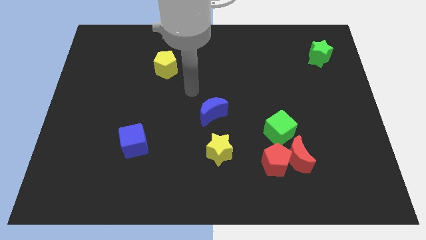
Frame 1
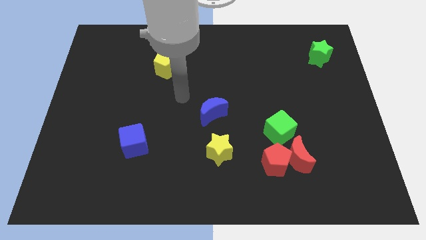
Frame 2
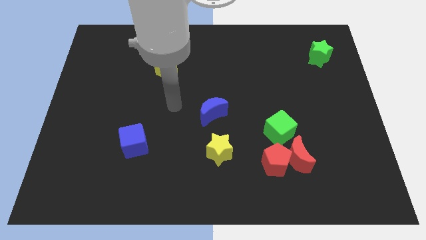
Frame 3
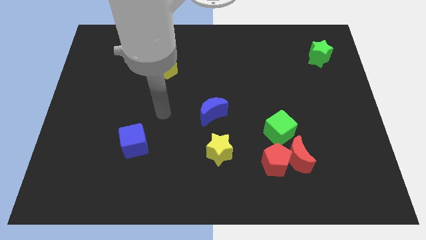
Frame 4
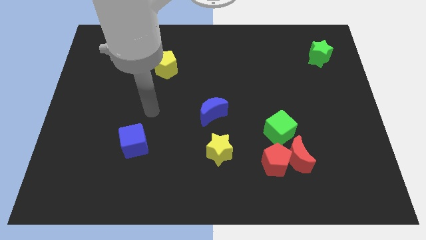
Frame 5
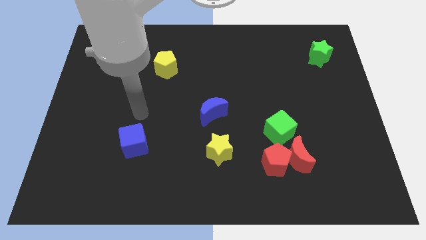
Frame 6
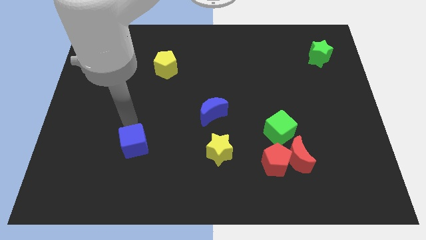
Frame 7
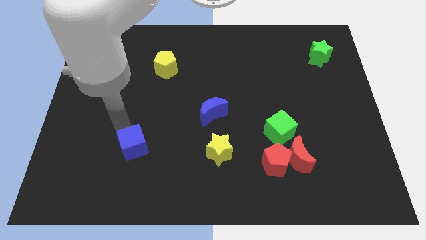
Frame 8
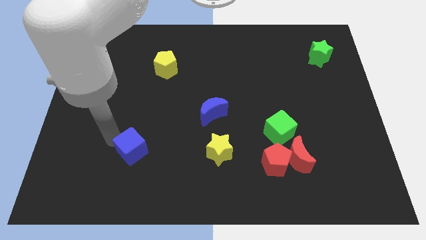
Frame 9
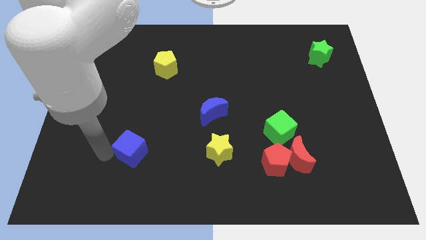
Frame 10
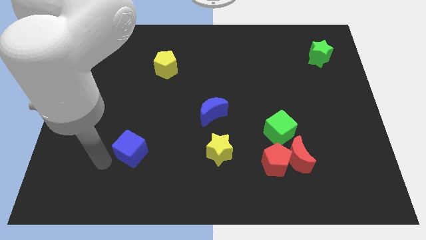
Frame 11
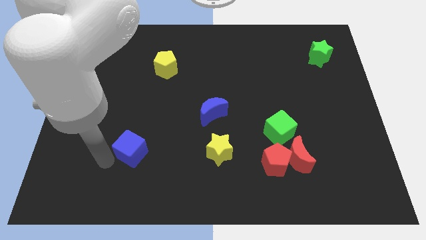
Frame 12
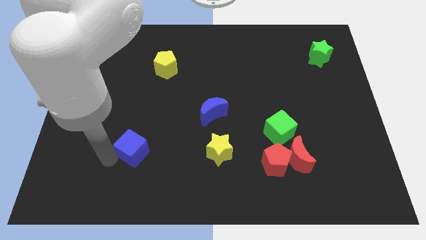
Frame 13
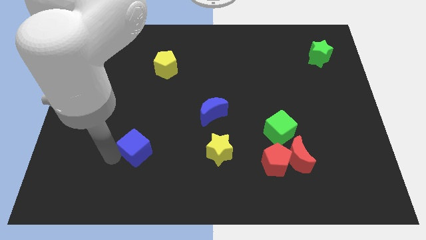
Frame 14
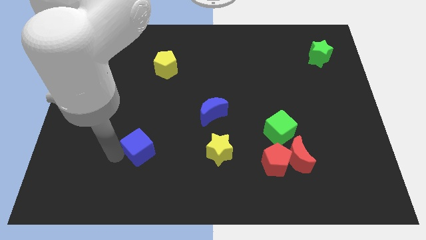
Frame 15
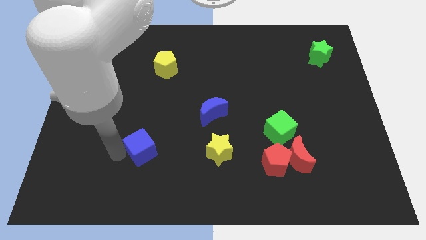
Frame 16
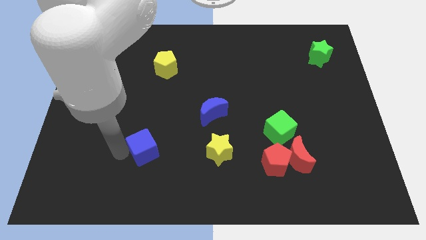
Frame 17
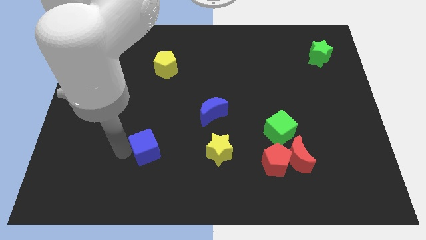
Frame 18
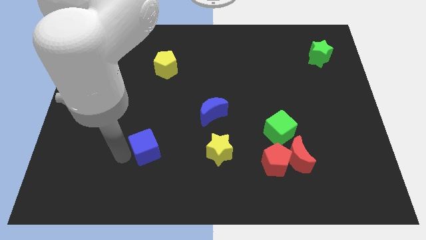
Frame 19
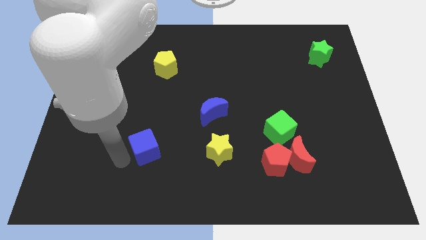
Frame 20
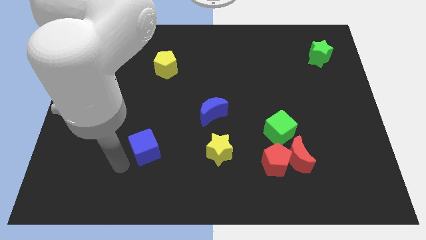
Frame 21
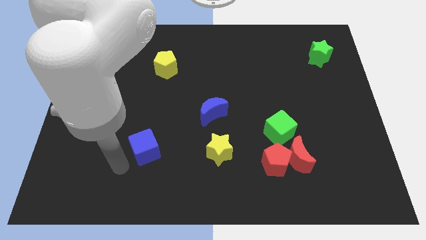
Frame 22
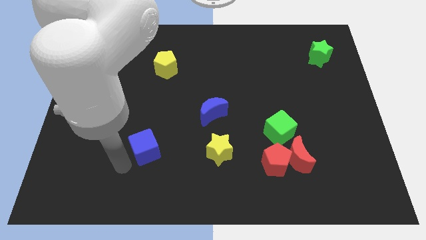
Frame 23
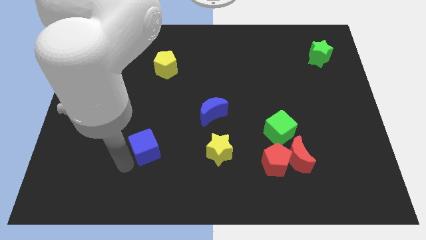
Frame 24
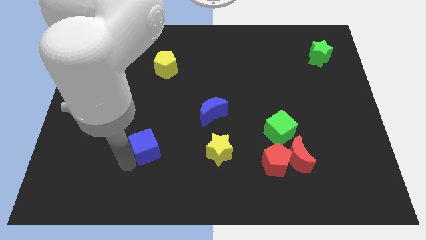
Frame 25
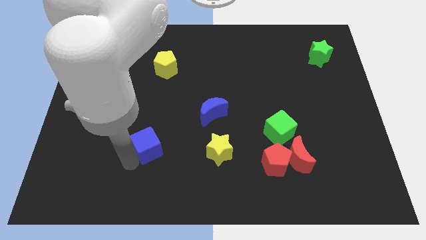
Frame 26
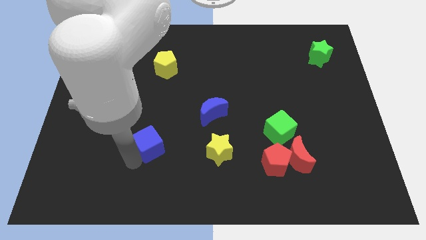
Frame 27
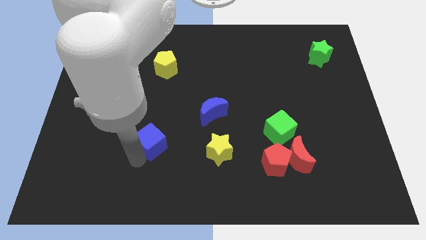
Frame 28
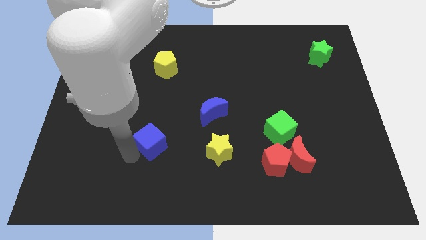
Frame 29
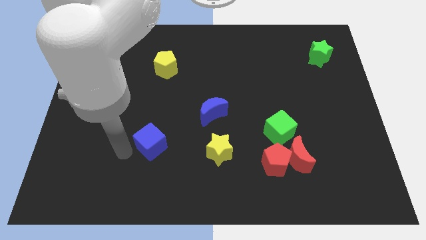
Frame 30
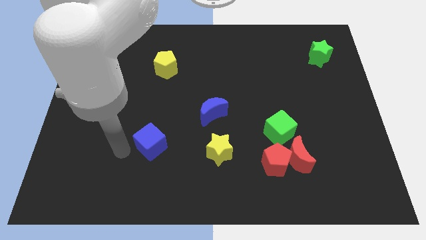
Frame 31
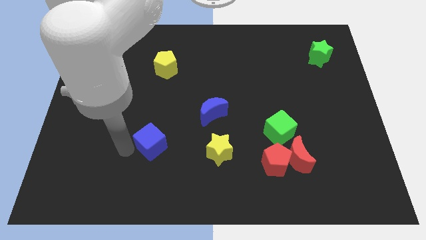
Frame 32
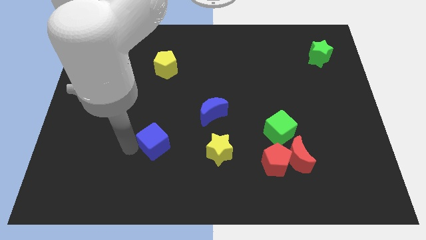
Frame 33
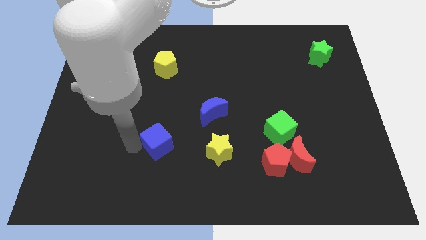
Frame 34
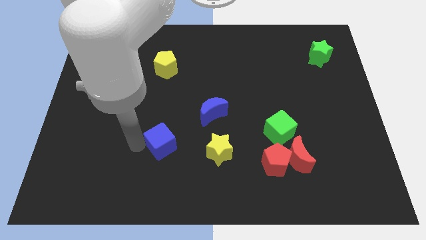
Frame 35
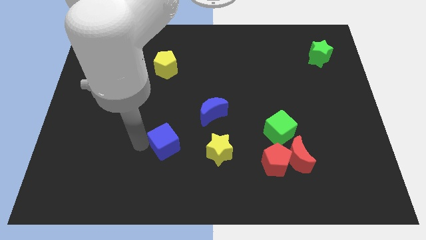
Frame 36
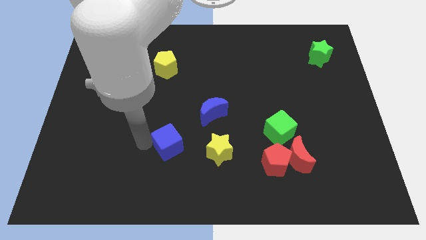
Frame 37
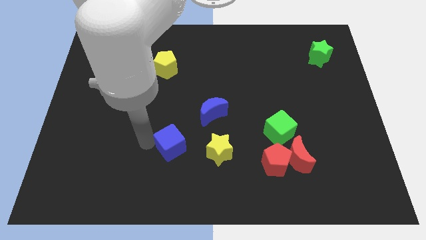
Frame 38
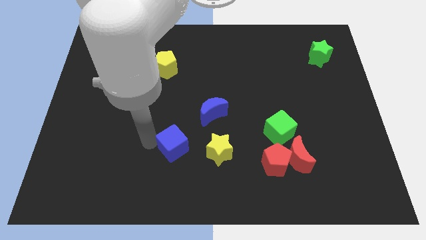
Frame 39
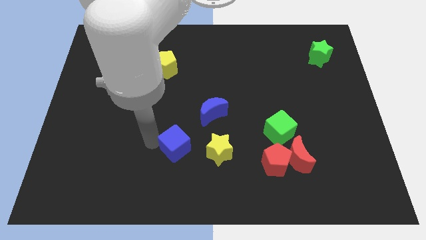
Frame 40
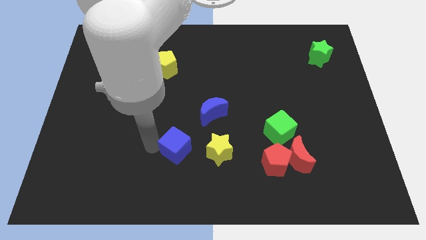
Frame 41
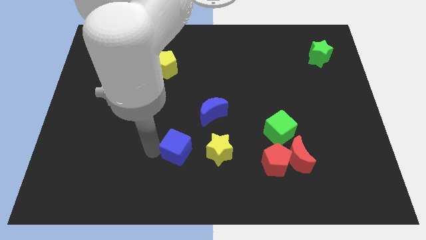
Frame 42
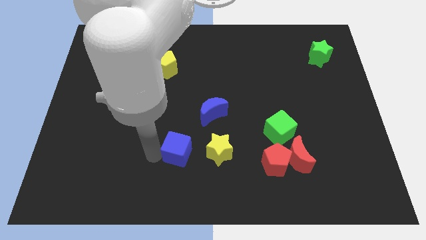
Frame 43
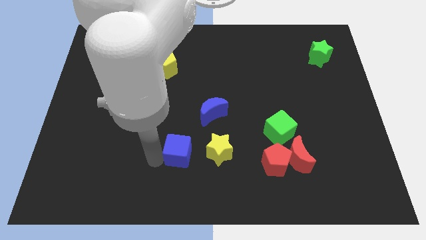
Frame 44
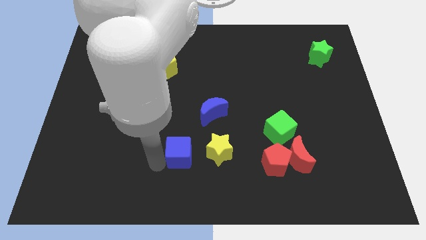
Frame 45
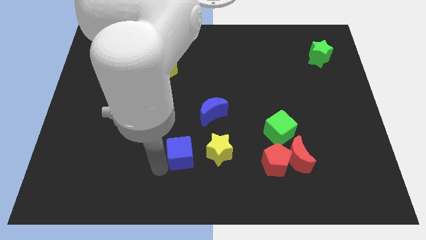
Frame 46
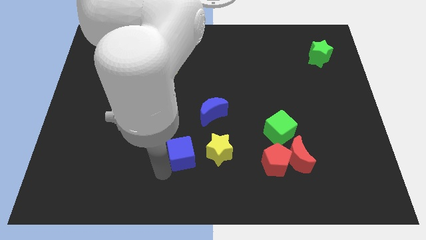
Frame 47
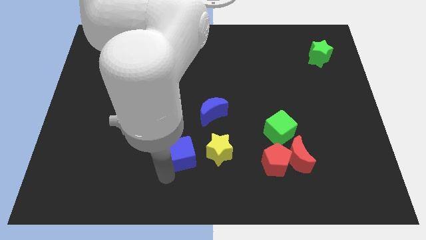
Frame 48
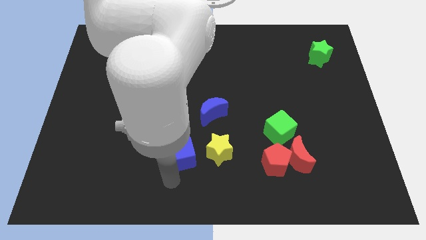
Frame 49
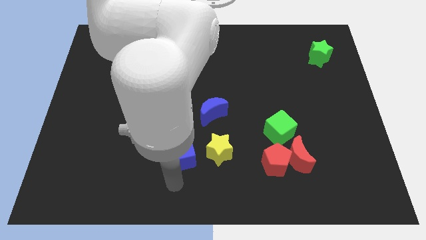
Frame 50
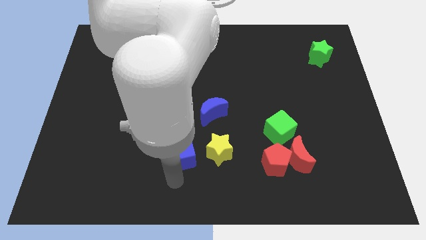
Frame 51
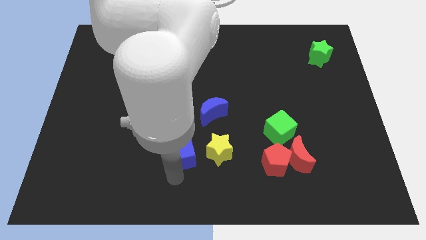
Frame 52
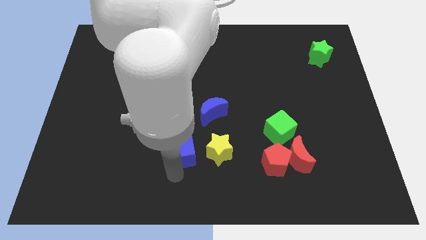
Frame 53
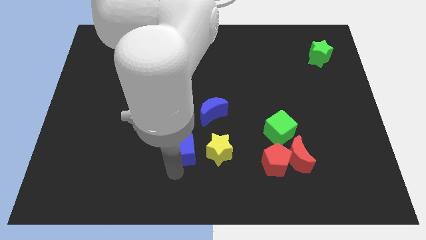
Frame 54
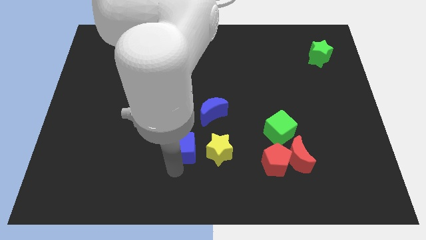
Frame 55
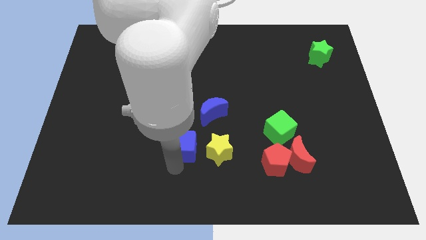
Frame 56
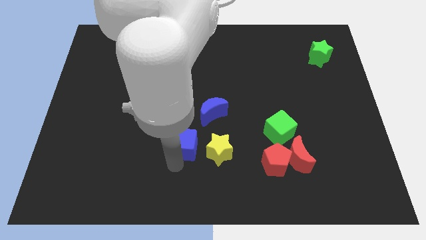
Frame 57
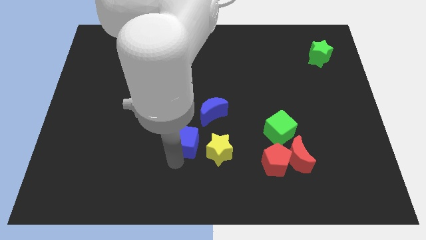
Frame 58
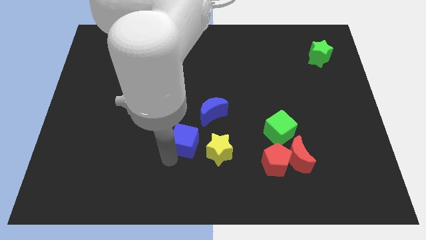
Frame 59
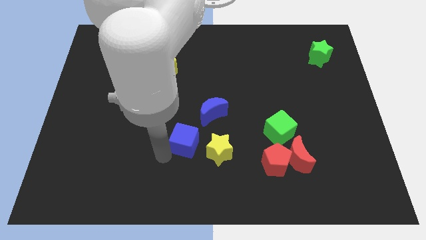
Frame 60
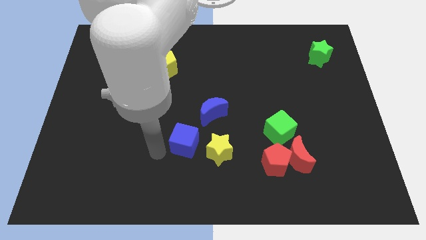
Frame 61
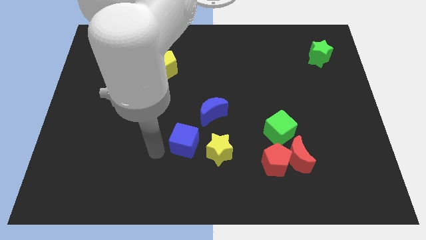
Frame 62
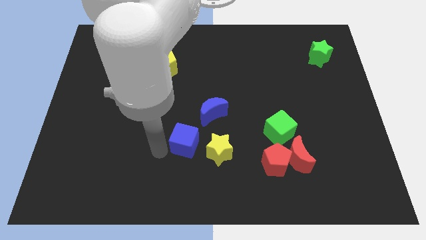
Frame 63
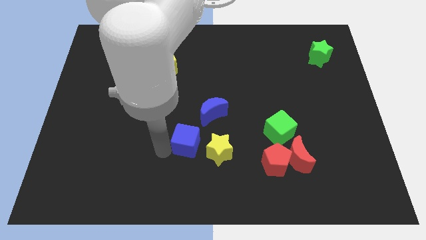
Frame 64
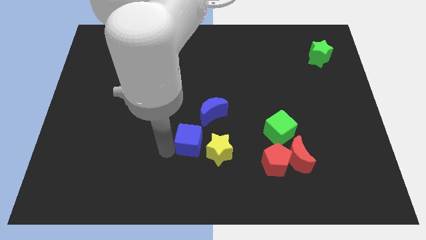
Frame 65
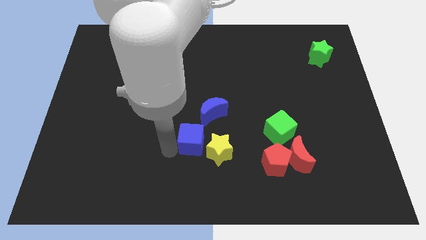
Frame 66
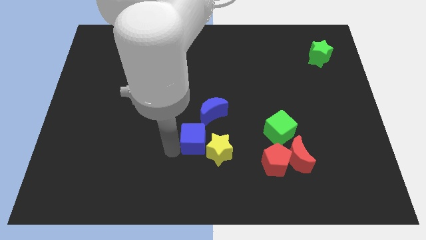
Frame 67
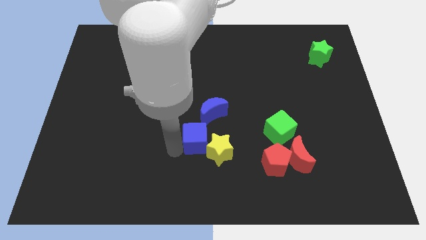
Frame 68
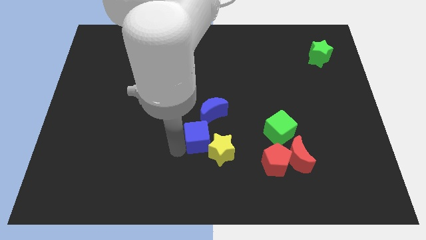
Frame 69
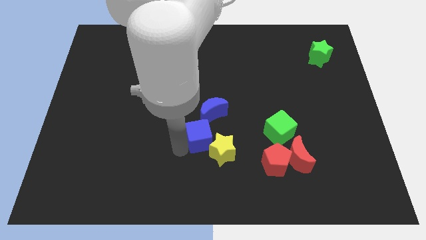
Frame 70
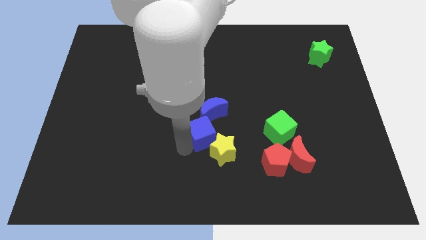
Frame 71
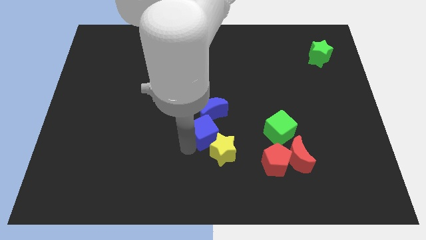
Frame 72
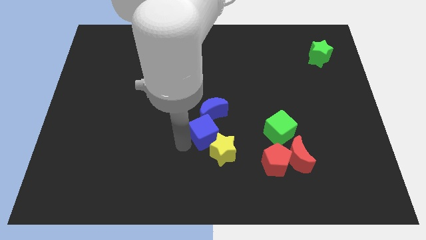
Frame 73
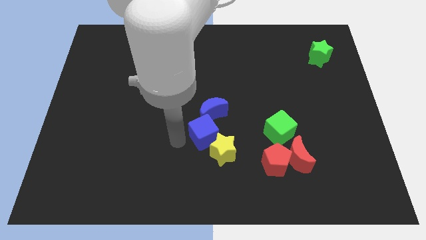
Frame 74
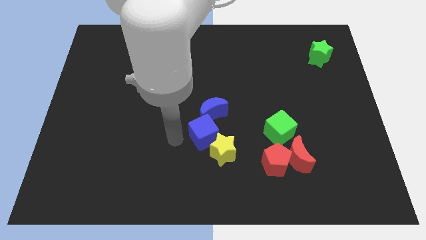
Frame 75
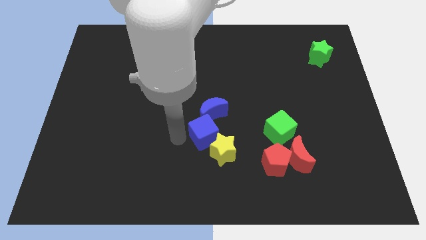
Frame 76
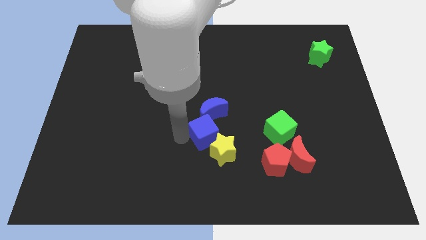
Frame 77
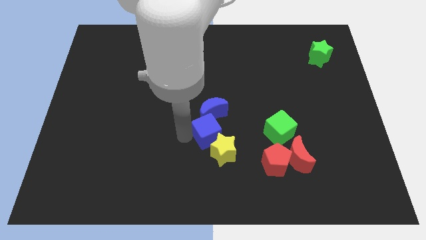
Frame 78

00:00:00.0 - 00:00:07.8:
put the blue cube to the left of the green cube
